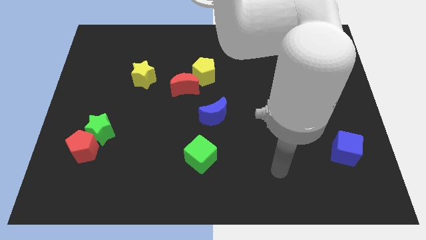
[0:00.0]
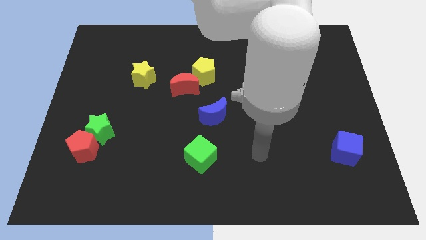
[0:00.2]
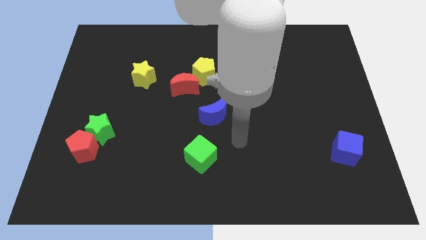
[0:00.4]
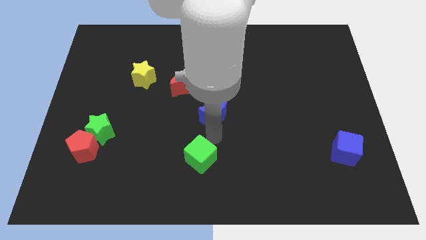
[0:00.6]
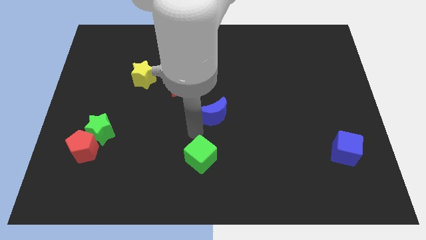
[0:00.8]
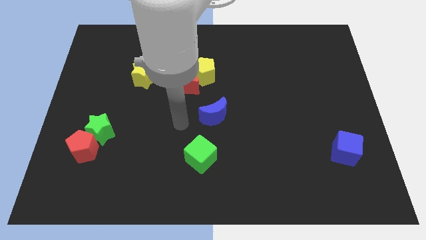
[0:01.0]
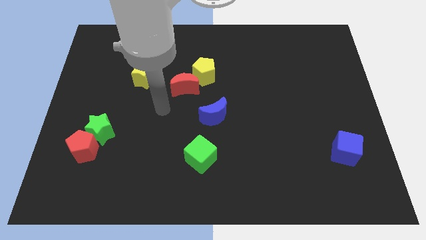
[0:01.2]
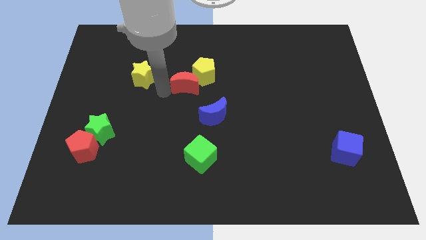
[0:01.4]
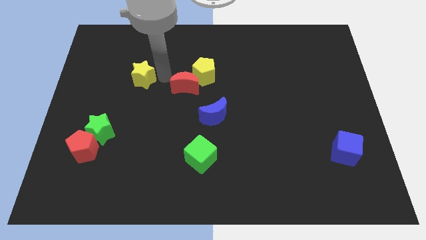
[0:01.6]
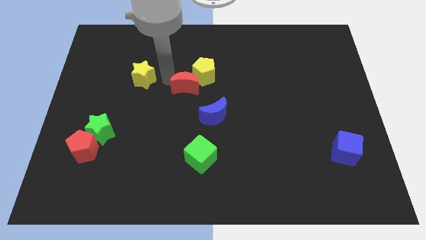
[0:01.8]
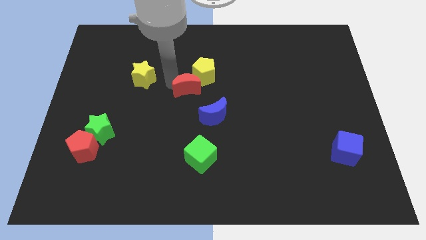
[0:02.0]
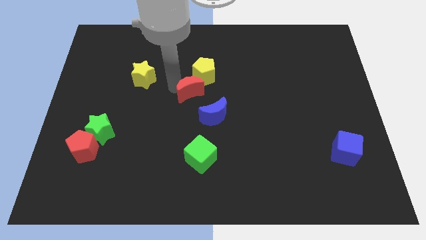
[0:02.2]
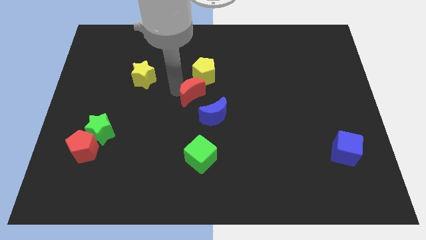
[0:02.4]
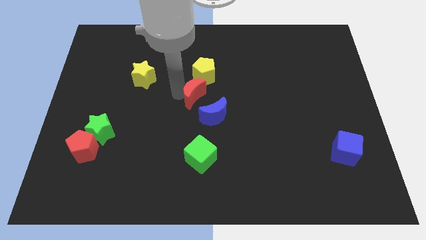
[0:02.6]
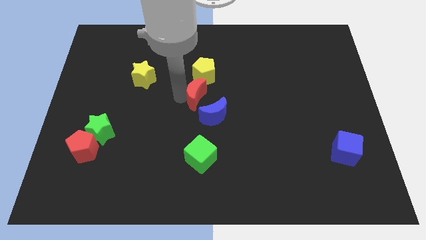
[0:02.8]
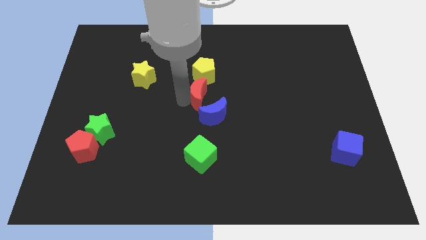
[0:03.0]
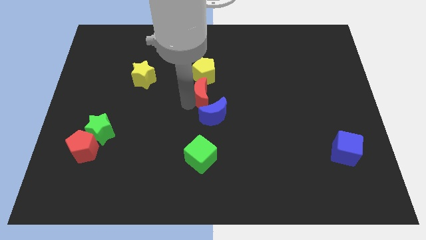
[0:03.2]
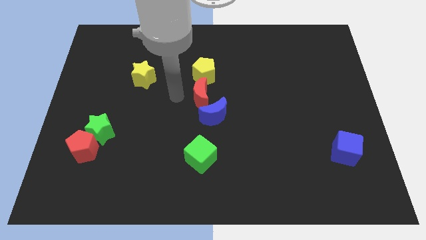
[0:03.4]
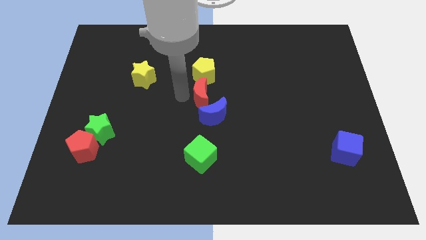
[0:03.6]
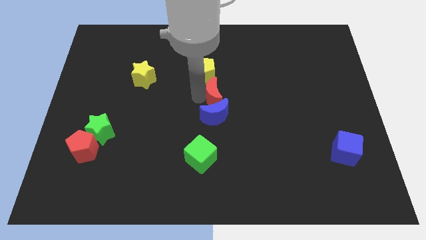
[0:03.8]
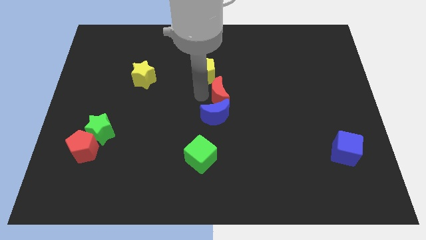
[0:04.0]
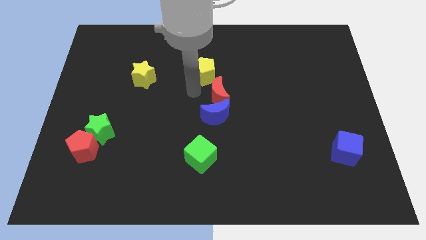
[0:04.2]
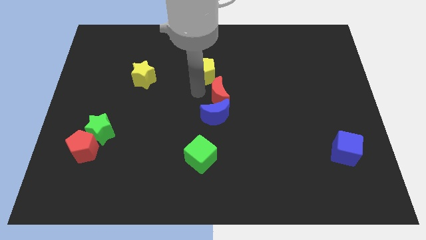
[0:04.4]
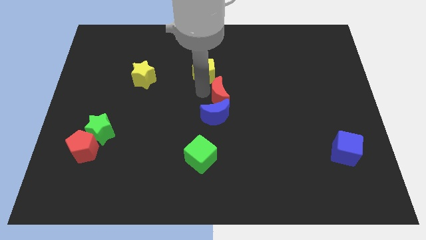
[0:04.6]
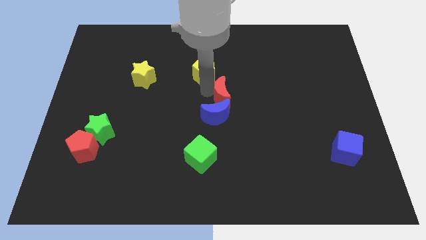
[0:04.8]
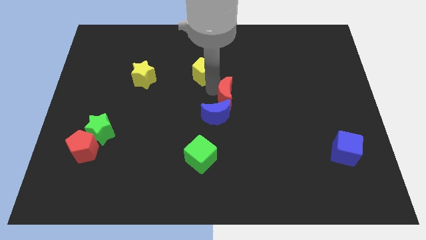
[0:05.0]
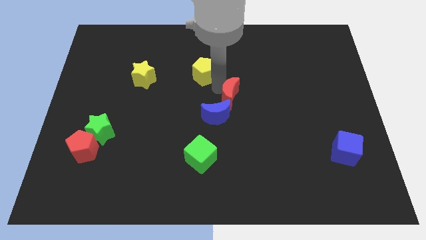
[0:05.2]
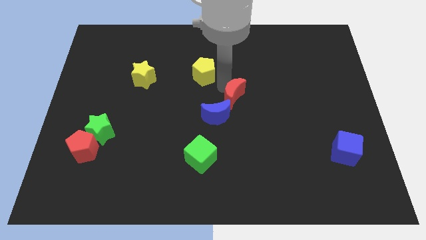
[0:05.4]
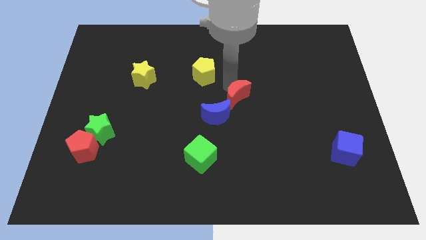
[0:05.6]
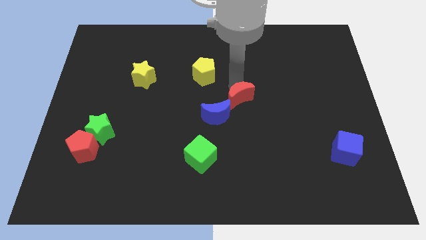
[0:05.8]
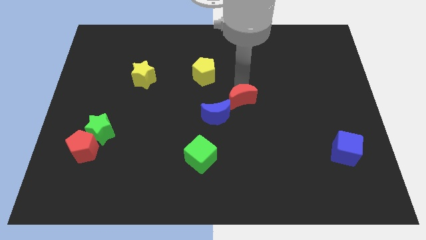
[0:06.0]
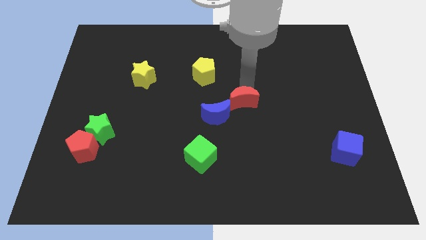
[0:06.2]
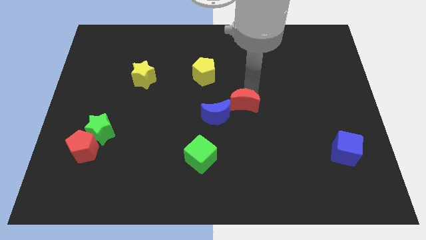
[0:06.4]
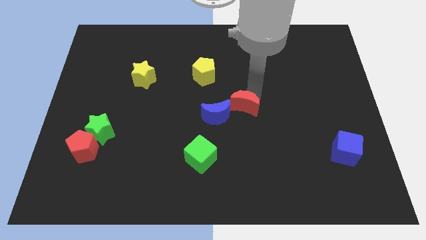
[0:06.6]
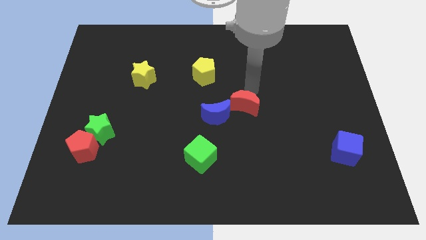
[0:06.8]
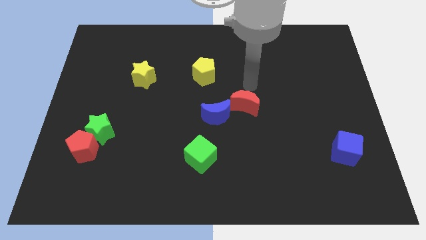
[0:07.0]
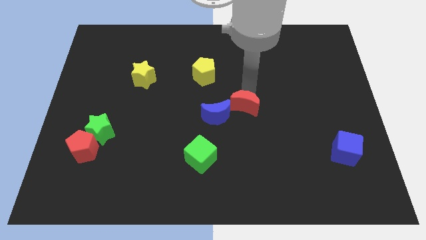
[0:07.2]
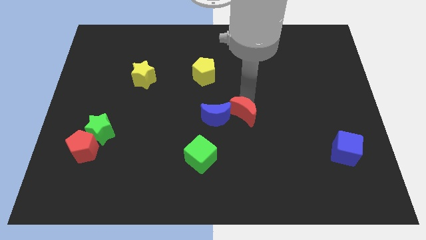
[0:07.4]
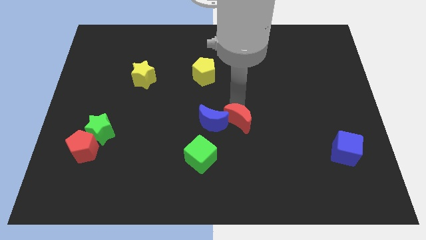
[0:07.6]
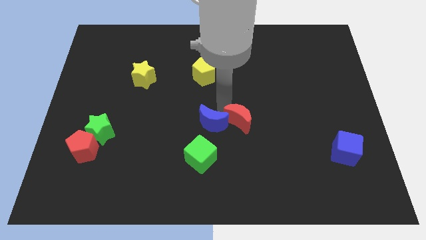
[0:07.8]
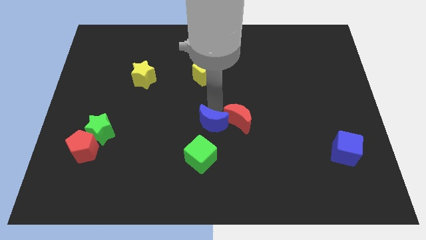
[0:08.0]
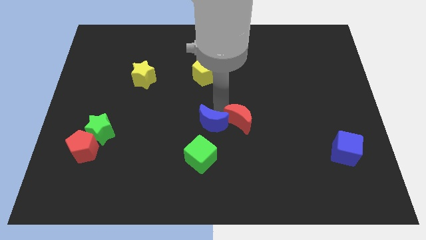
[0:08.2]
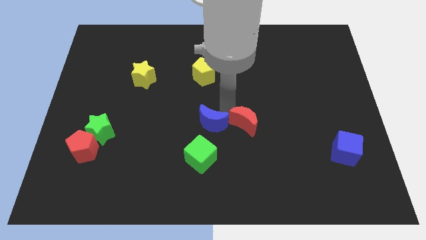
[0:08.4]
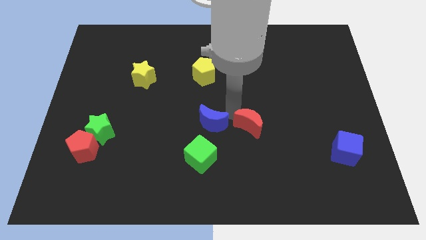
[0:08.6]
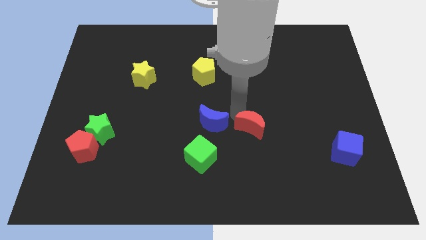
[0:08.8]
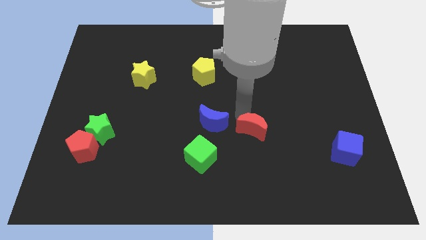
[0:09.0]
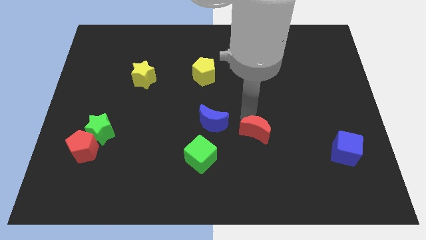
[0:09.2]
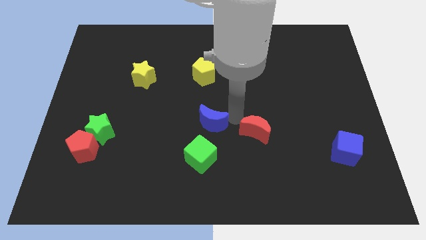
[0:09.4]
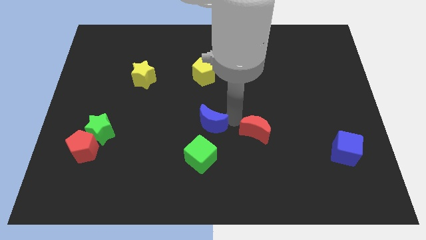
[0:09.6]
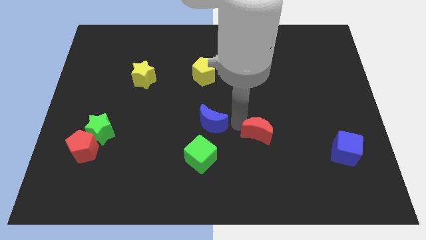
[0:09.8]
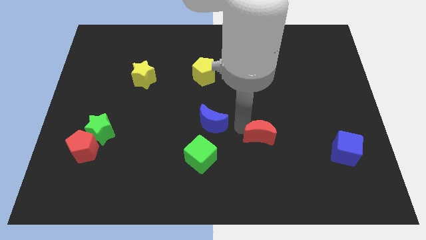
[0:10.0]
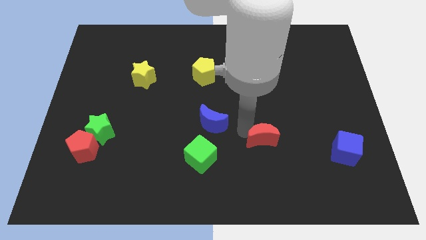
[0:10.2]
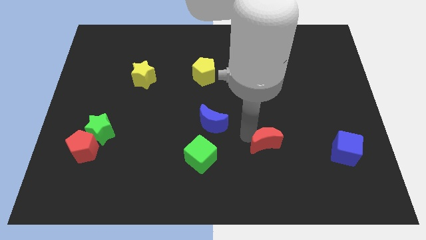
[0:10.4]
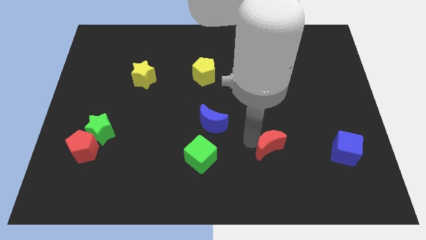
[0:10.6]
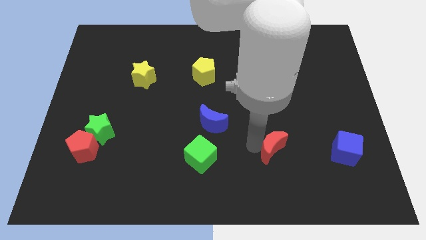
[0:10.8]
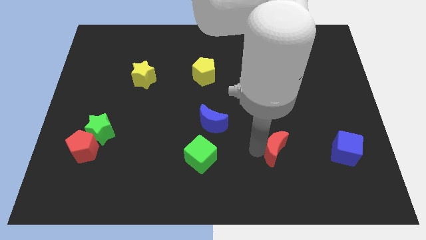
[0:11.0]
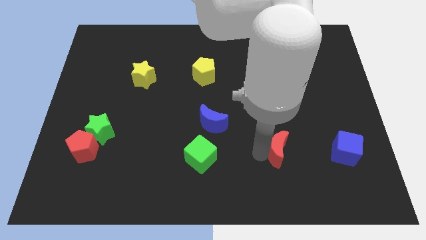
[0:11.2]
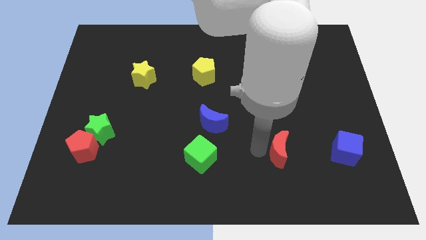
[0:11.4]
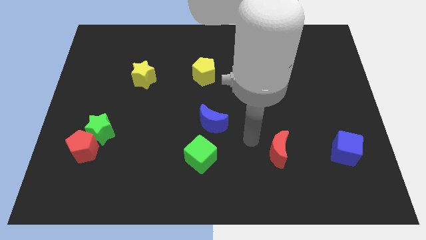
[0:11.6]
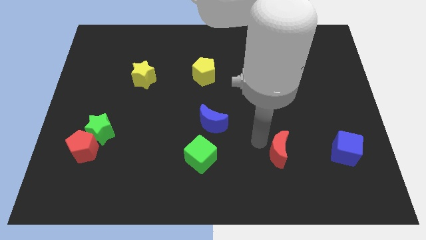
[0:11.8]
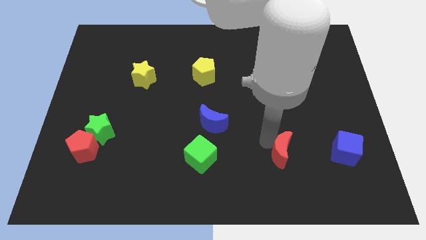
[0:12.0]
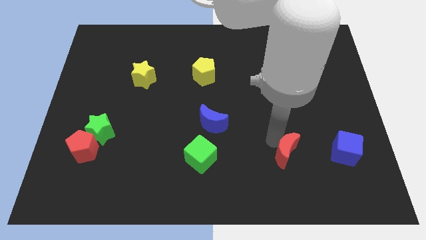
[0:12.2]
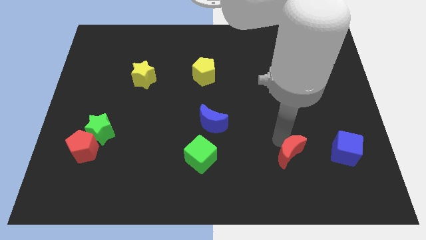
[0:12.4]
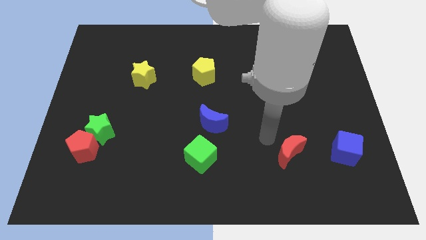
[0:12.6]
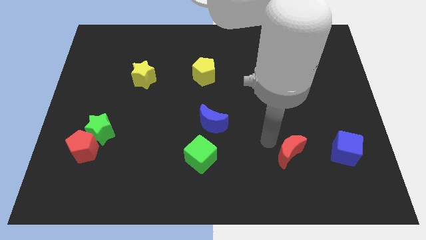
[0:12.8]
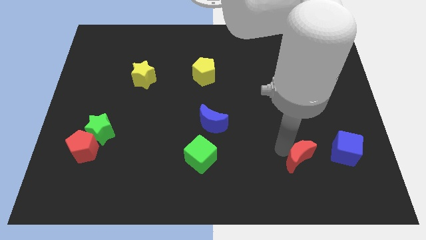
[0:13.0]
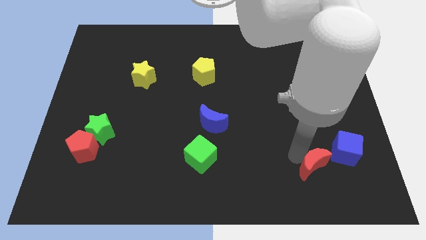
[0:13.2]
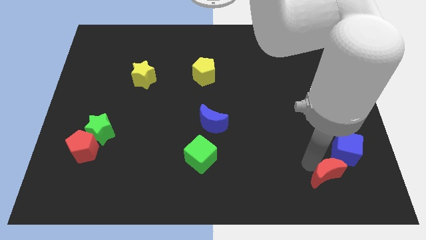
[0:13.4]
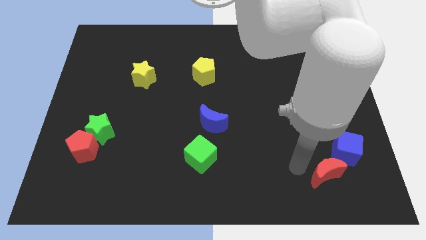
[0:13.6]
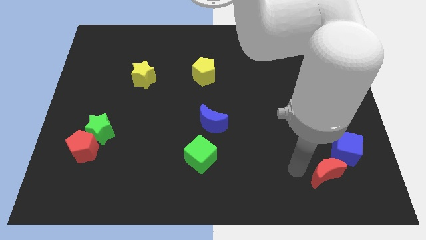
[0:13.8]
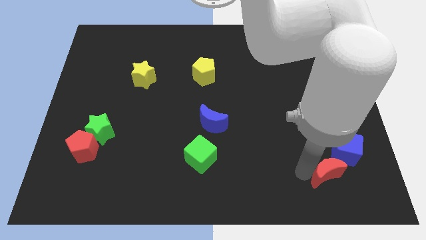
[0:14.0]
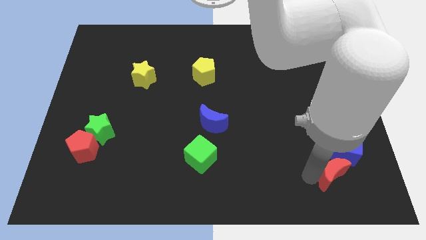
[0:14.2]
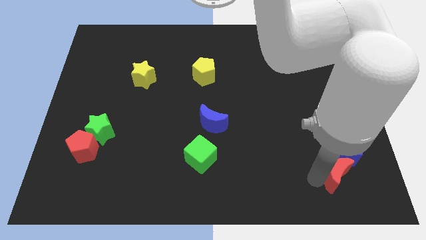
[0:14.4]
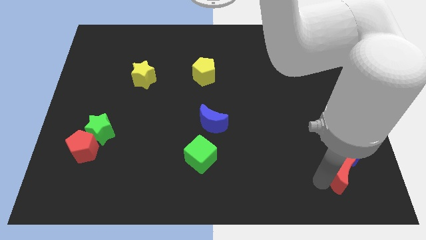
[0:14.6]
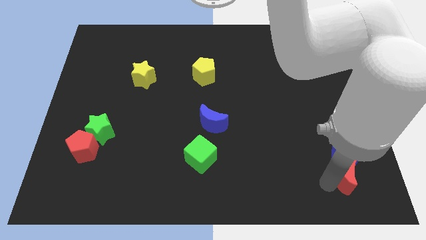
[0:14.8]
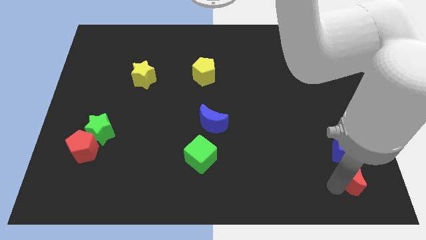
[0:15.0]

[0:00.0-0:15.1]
slide the red moon to the lower right corner
